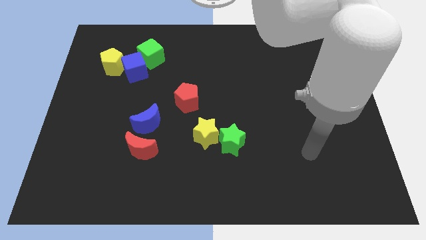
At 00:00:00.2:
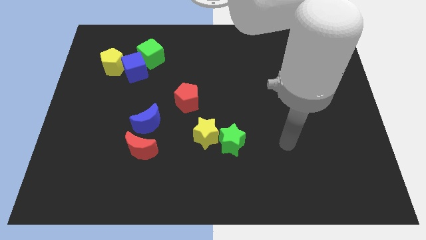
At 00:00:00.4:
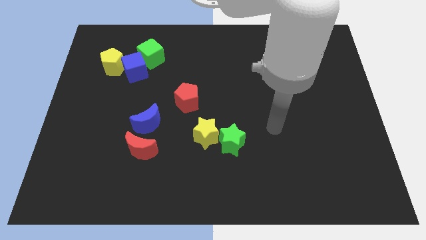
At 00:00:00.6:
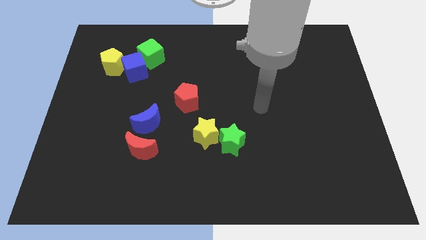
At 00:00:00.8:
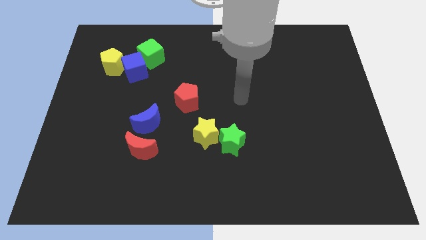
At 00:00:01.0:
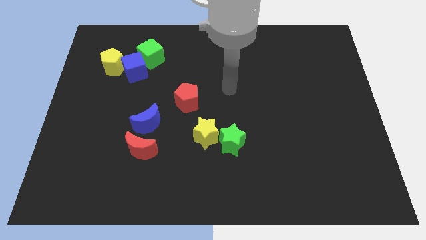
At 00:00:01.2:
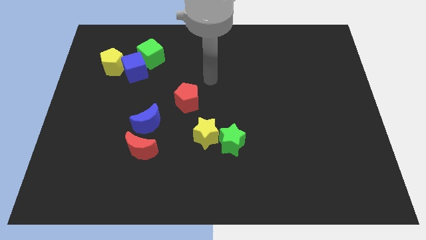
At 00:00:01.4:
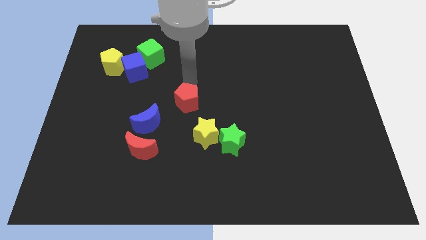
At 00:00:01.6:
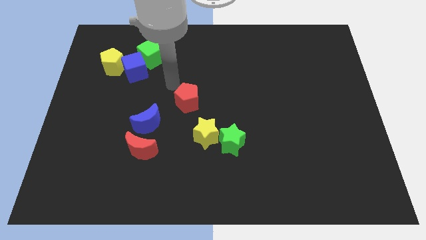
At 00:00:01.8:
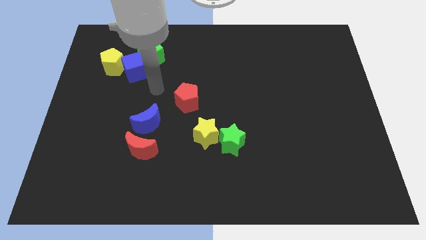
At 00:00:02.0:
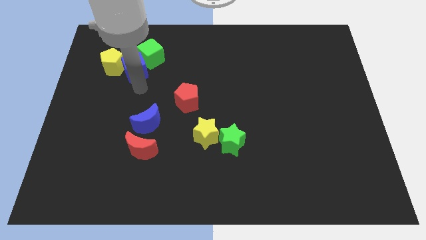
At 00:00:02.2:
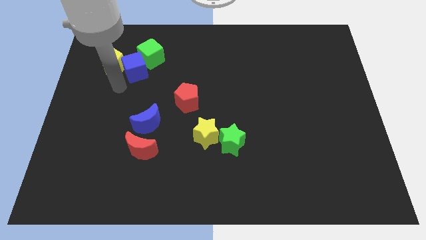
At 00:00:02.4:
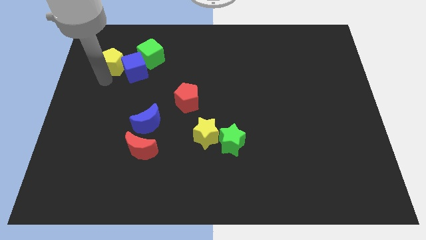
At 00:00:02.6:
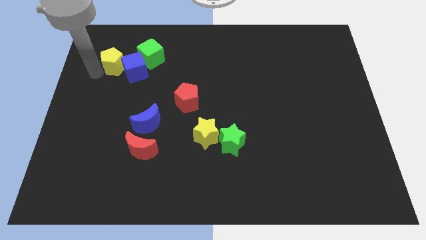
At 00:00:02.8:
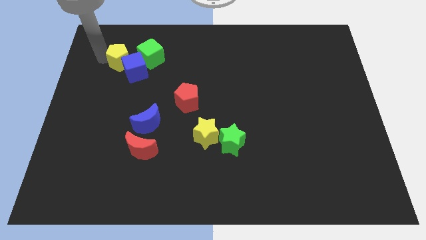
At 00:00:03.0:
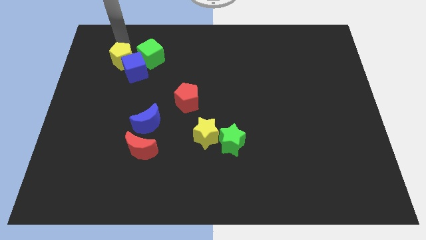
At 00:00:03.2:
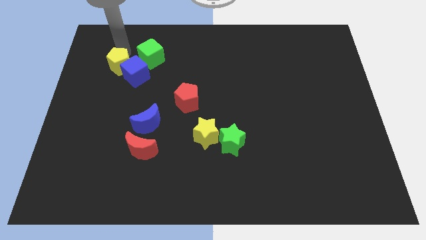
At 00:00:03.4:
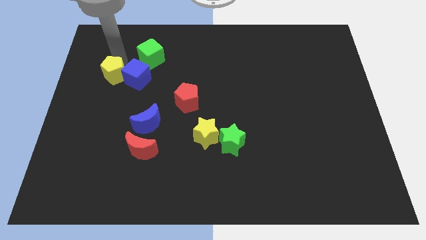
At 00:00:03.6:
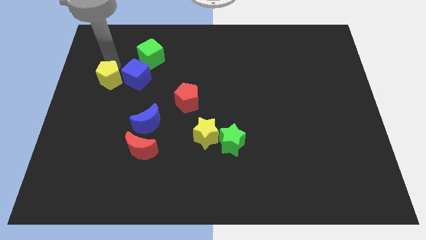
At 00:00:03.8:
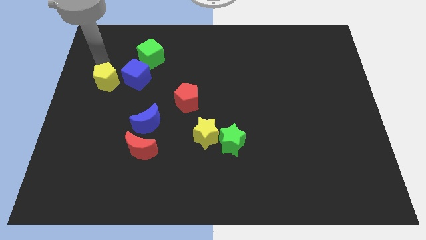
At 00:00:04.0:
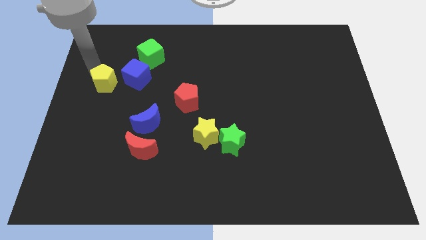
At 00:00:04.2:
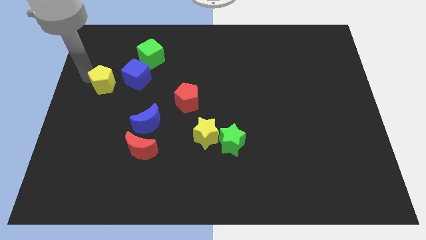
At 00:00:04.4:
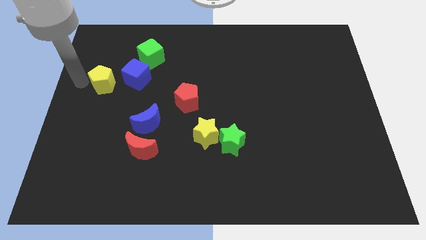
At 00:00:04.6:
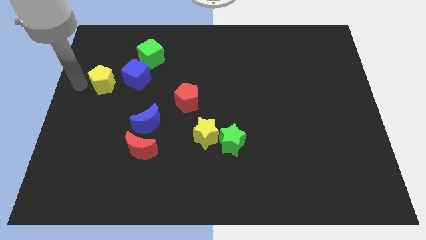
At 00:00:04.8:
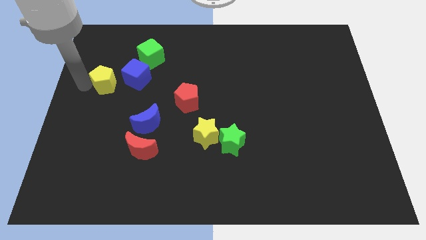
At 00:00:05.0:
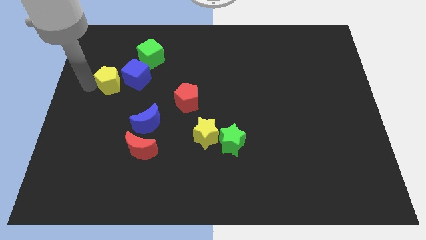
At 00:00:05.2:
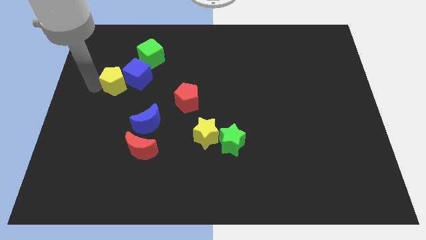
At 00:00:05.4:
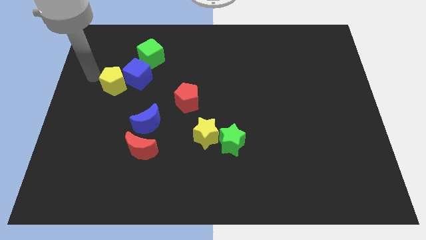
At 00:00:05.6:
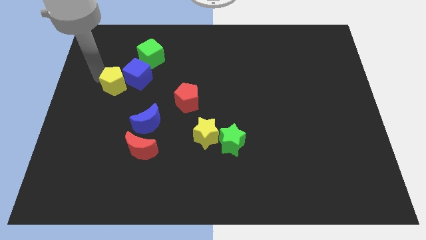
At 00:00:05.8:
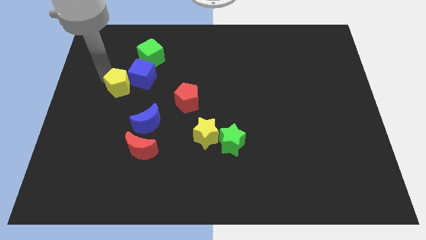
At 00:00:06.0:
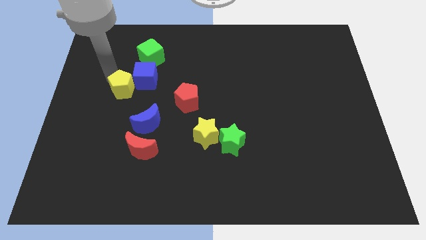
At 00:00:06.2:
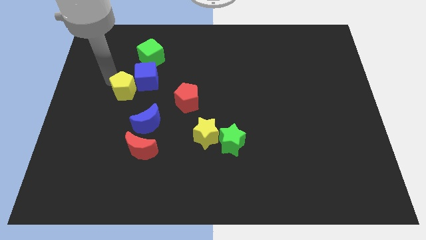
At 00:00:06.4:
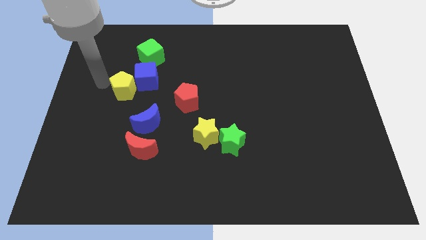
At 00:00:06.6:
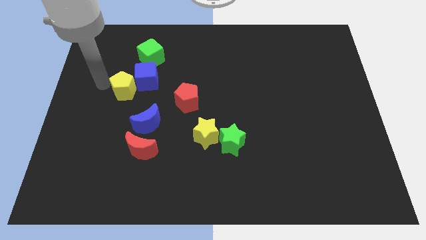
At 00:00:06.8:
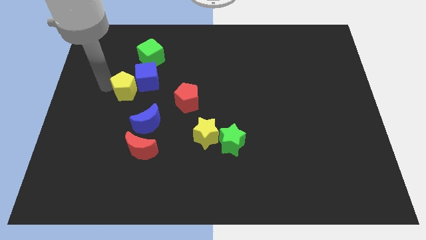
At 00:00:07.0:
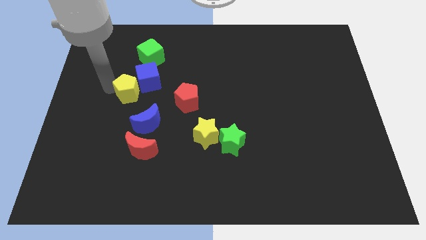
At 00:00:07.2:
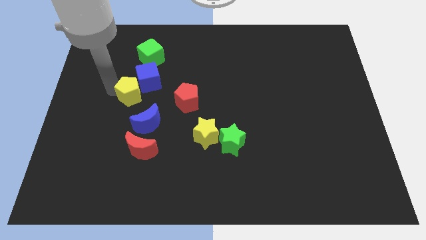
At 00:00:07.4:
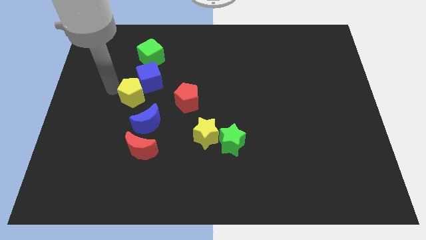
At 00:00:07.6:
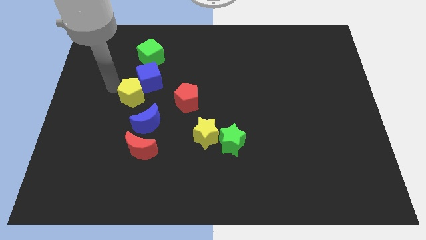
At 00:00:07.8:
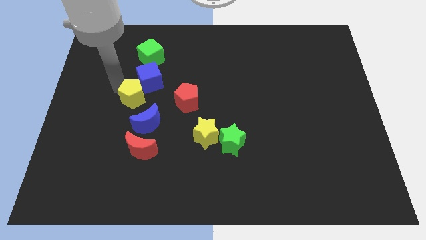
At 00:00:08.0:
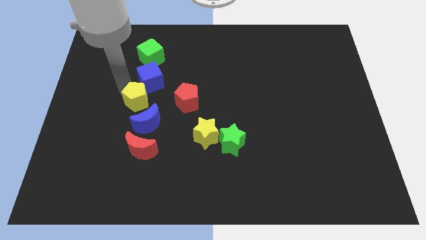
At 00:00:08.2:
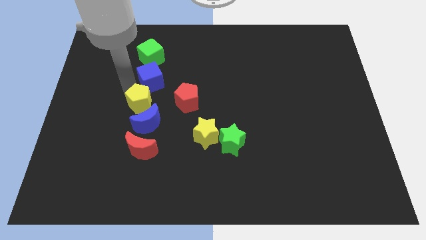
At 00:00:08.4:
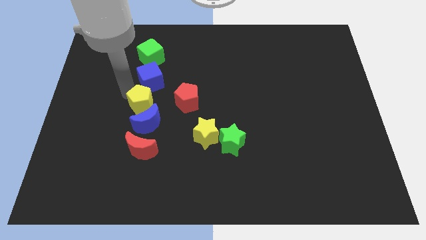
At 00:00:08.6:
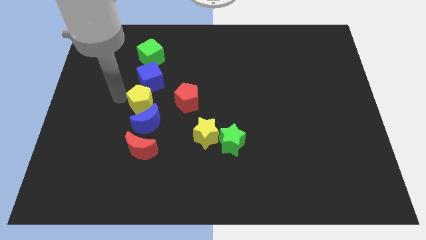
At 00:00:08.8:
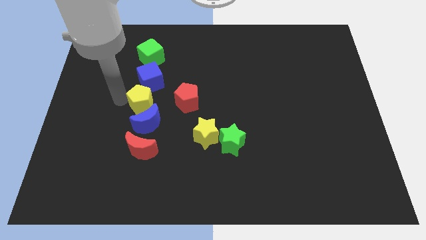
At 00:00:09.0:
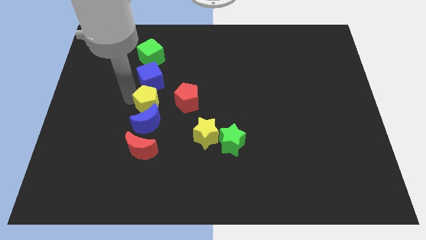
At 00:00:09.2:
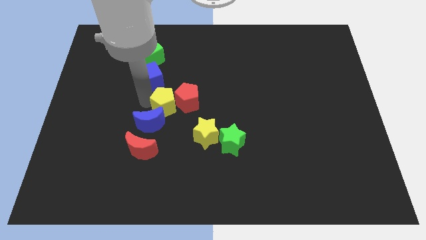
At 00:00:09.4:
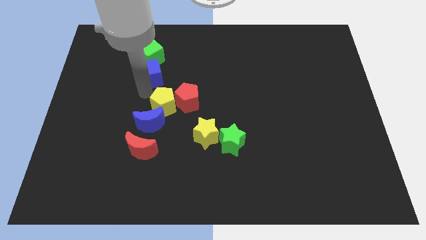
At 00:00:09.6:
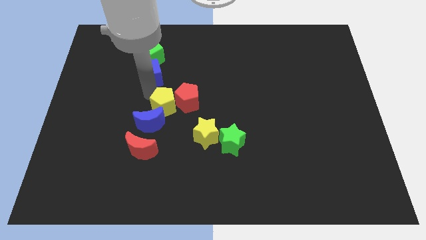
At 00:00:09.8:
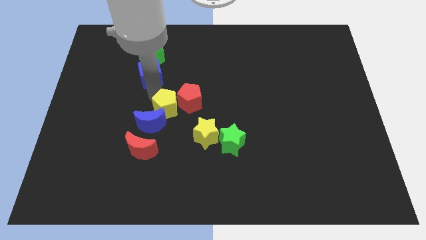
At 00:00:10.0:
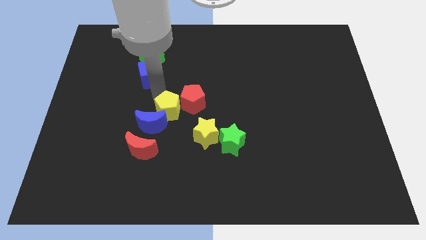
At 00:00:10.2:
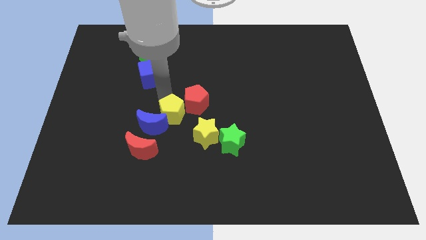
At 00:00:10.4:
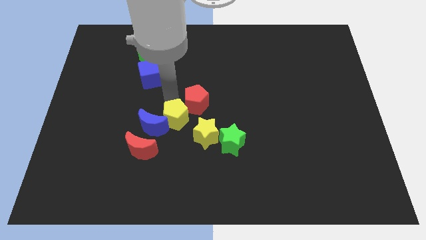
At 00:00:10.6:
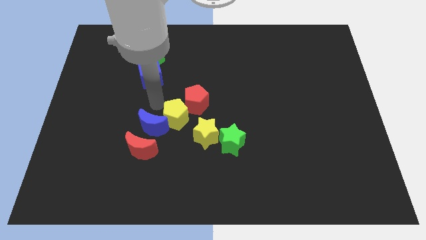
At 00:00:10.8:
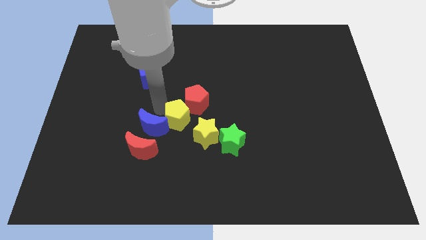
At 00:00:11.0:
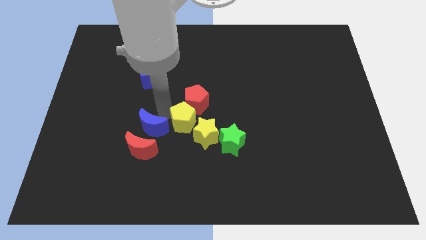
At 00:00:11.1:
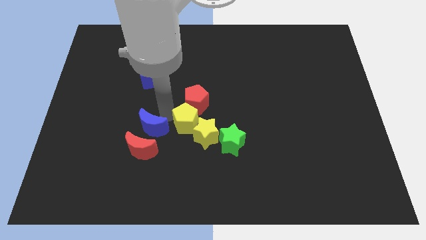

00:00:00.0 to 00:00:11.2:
push the yellow pentagon next to the yellow star
